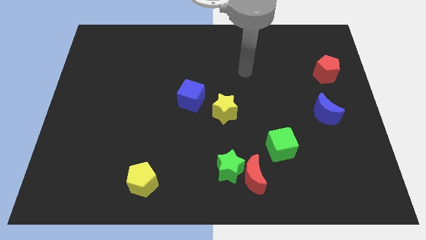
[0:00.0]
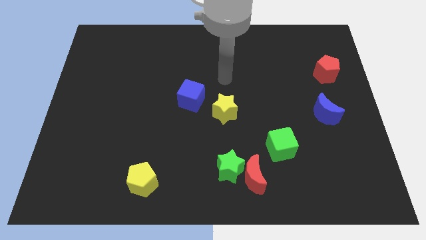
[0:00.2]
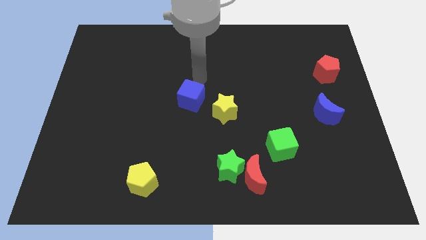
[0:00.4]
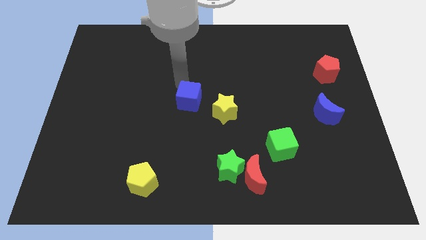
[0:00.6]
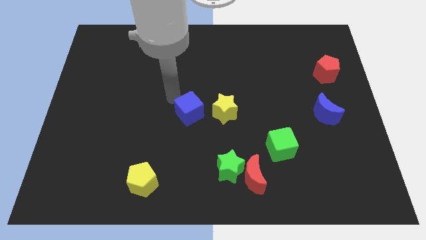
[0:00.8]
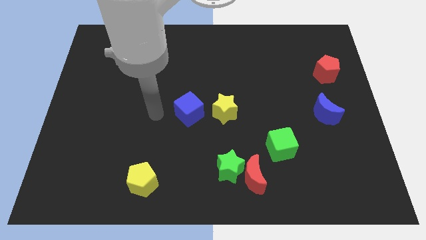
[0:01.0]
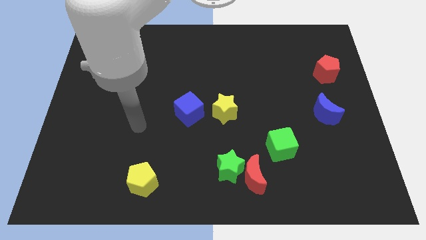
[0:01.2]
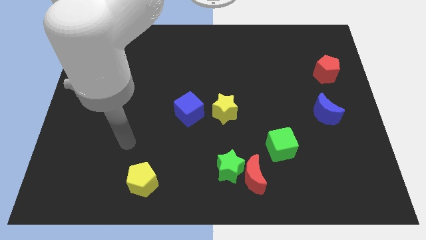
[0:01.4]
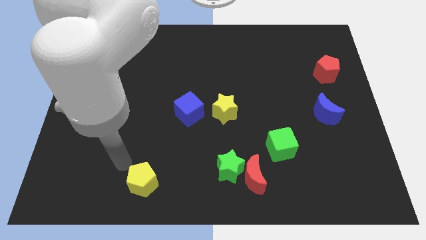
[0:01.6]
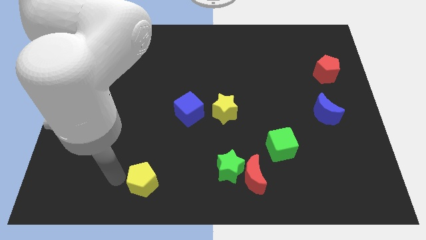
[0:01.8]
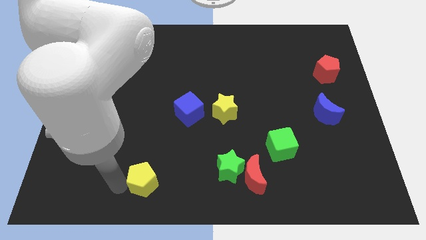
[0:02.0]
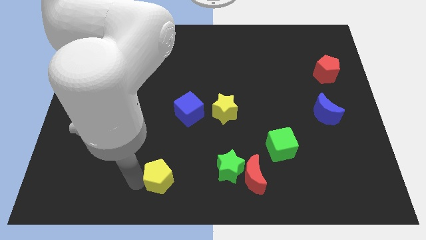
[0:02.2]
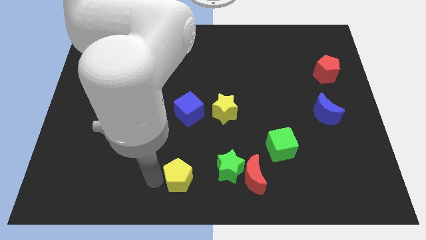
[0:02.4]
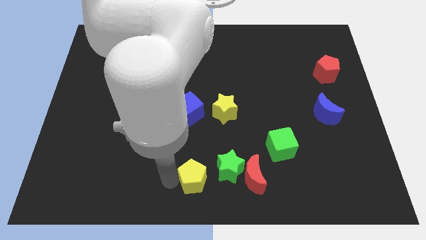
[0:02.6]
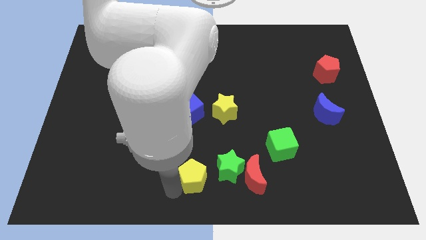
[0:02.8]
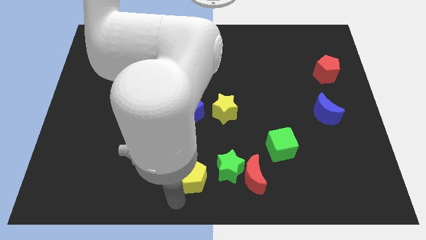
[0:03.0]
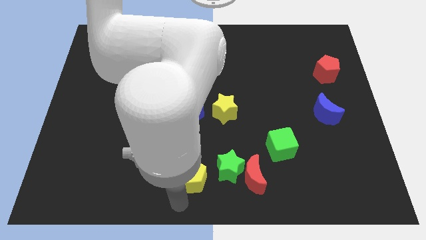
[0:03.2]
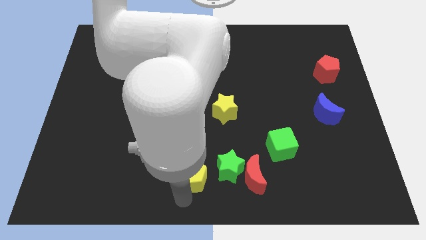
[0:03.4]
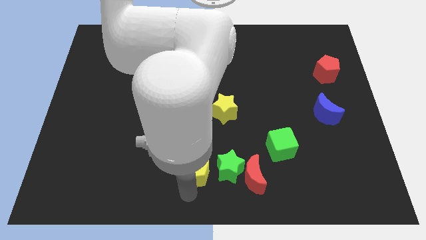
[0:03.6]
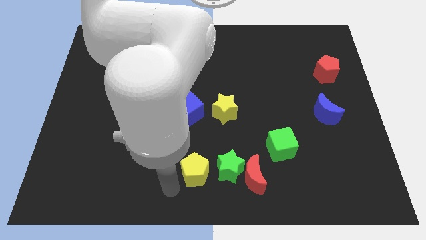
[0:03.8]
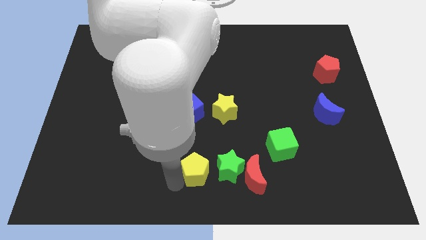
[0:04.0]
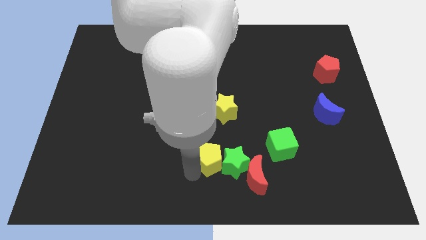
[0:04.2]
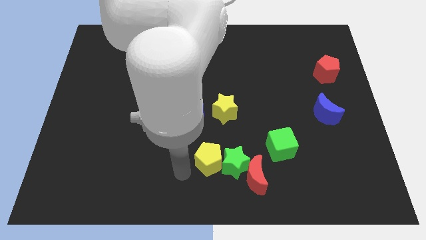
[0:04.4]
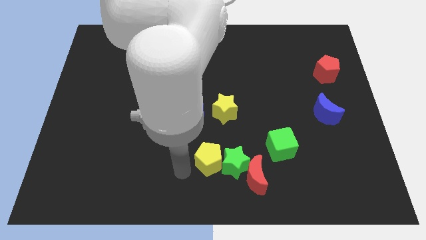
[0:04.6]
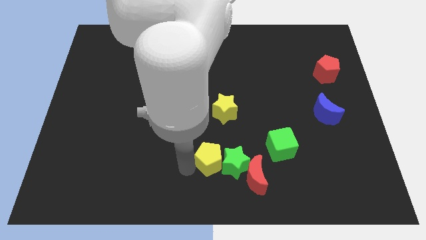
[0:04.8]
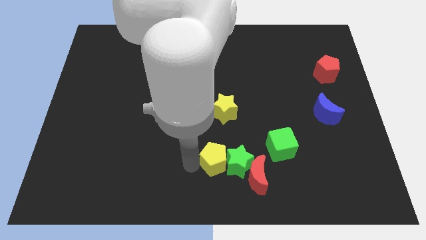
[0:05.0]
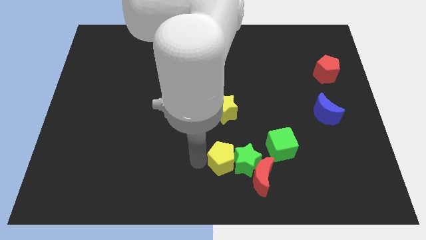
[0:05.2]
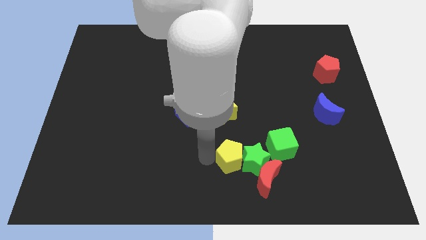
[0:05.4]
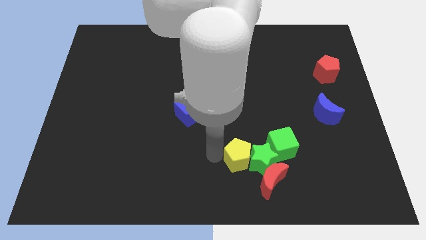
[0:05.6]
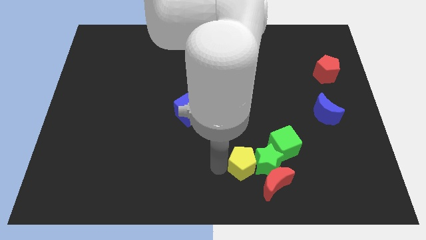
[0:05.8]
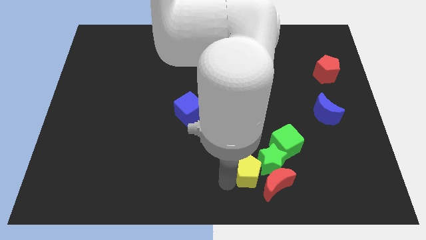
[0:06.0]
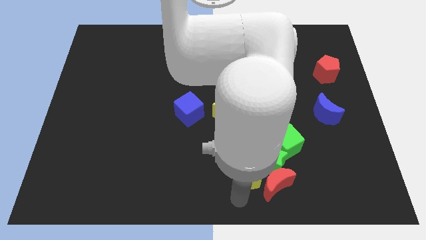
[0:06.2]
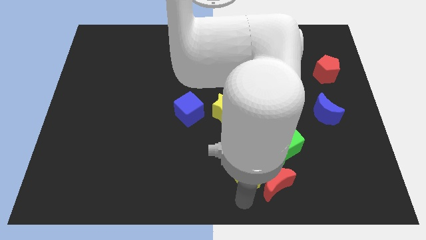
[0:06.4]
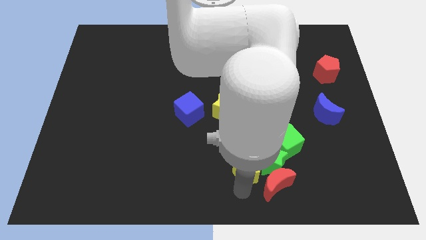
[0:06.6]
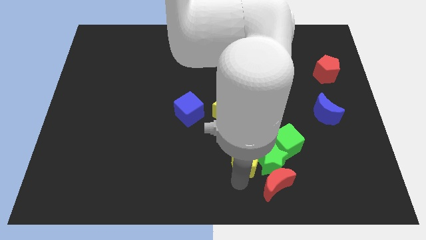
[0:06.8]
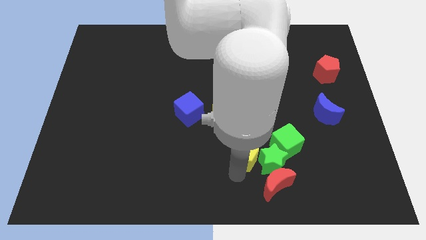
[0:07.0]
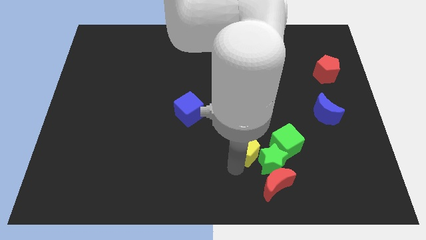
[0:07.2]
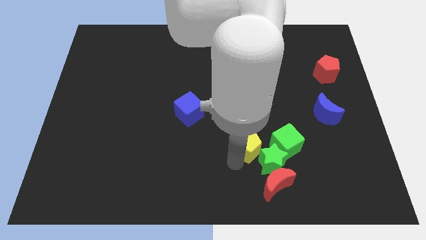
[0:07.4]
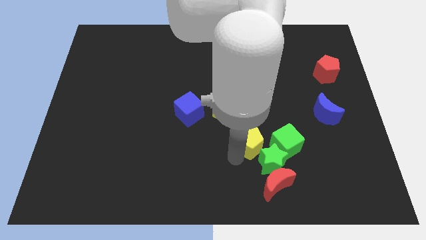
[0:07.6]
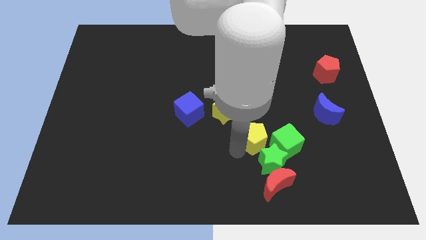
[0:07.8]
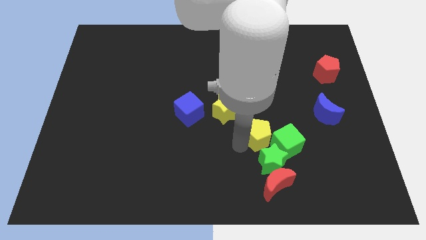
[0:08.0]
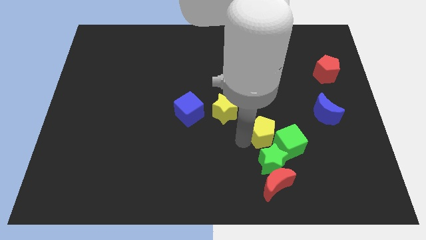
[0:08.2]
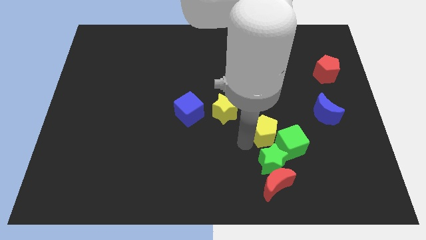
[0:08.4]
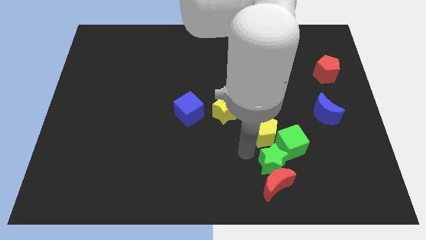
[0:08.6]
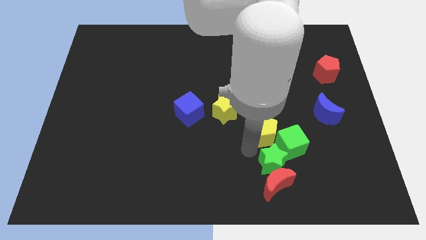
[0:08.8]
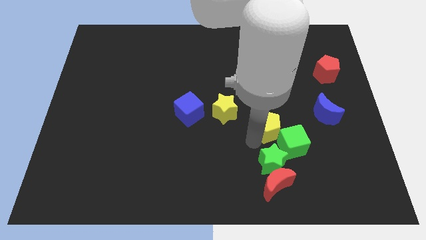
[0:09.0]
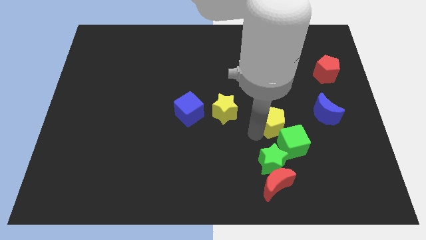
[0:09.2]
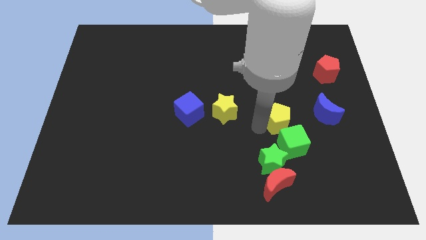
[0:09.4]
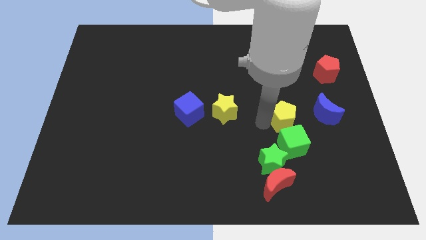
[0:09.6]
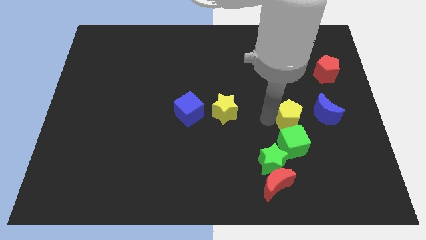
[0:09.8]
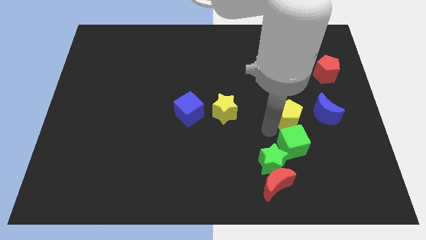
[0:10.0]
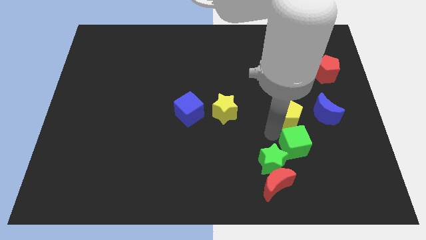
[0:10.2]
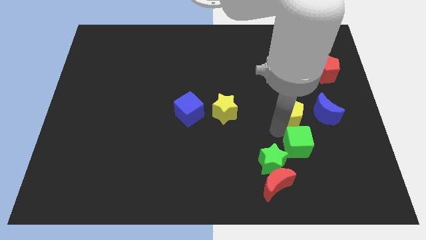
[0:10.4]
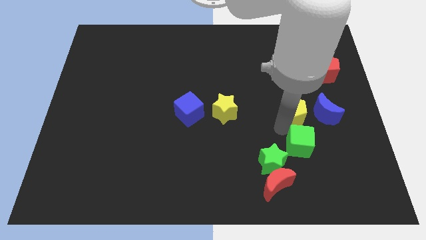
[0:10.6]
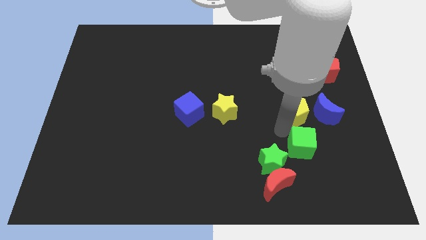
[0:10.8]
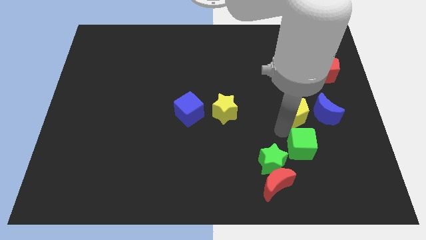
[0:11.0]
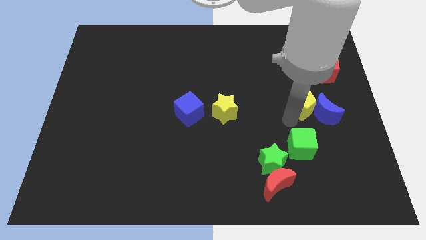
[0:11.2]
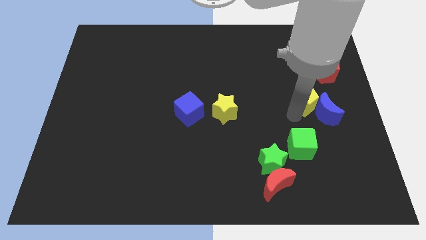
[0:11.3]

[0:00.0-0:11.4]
push the yellow pentagon diagonally down and to the left of the red pentagon
